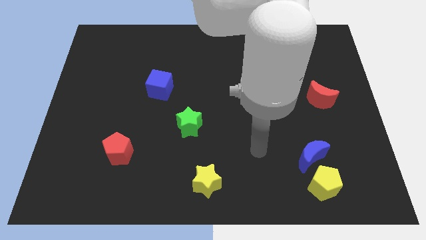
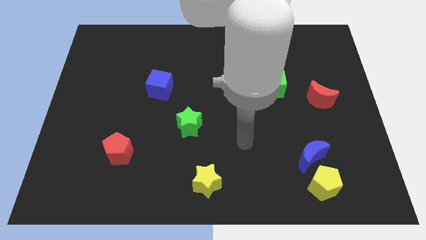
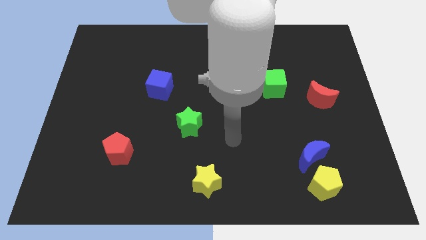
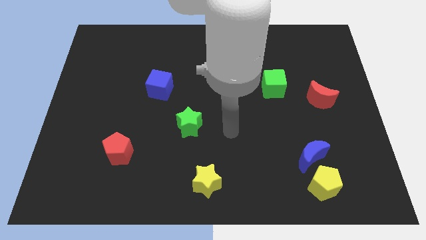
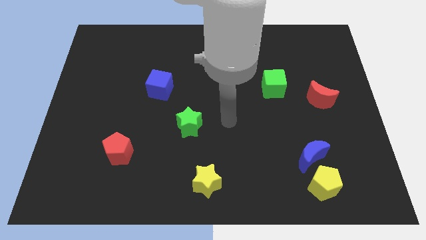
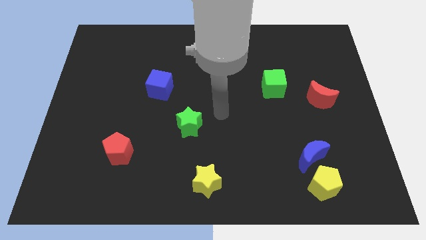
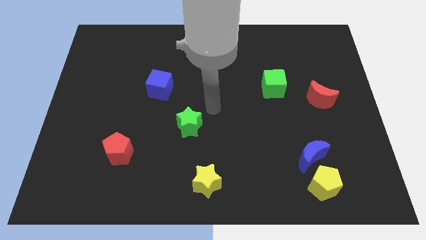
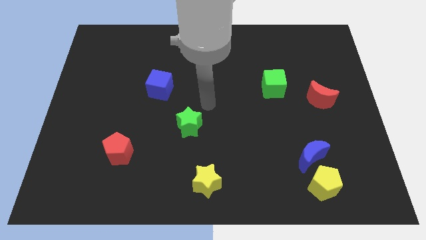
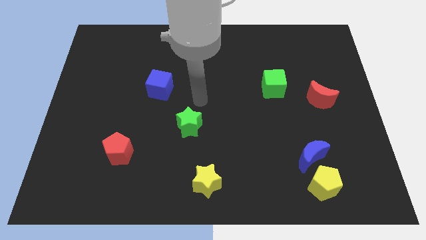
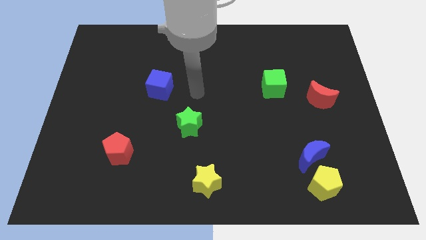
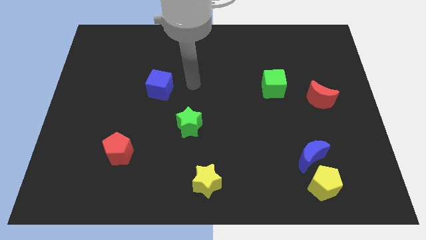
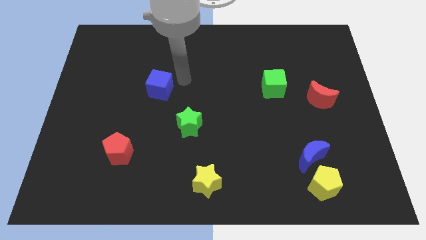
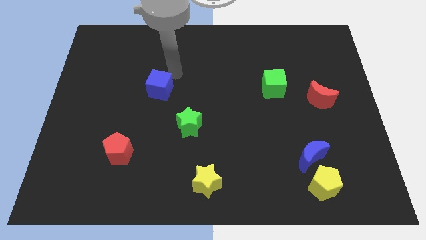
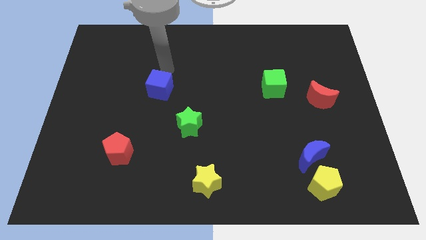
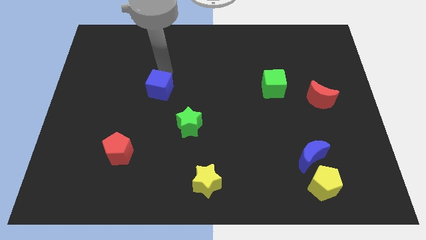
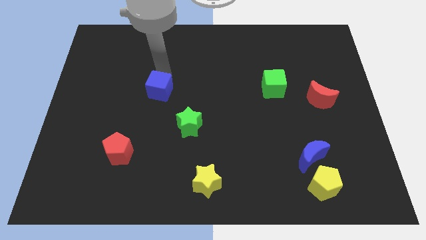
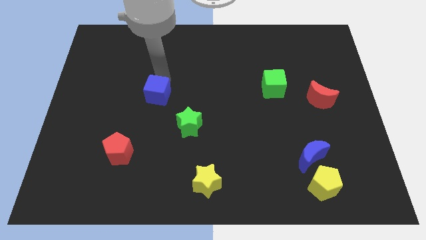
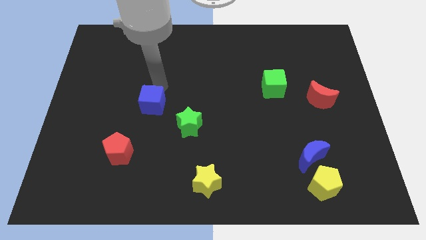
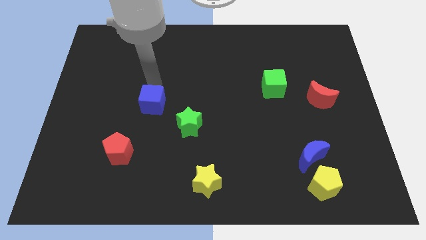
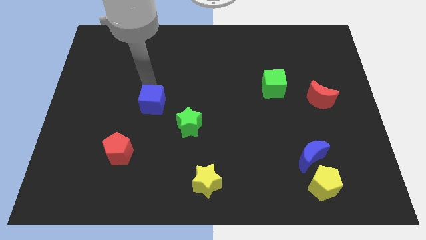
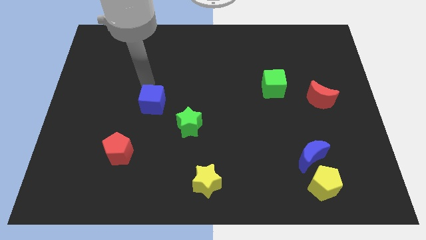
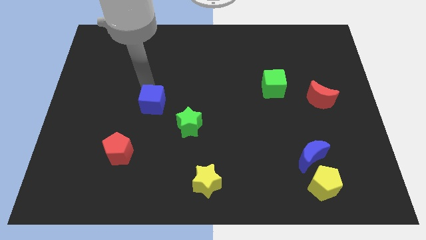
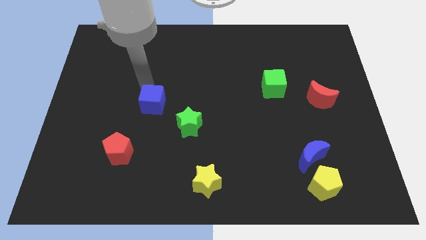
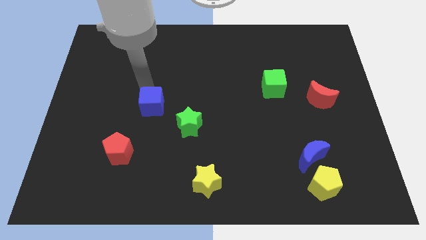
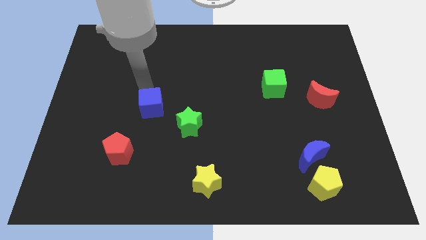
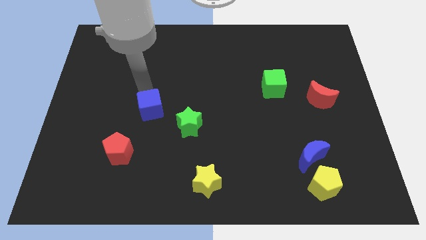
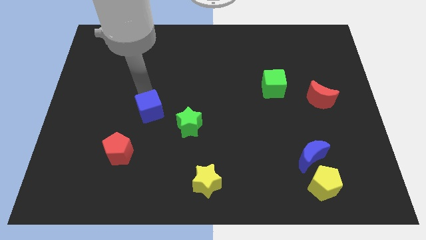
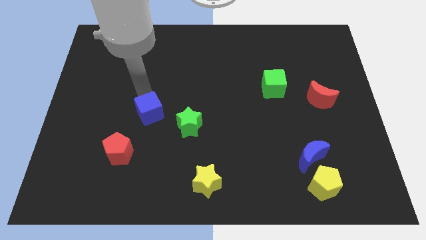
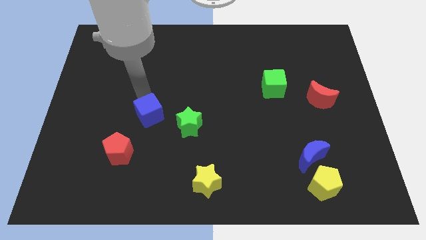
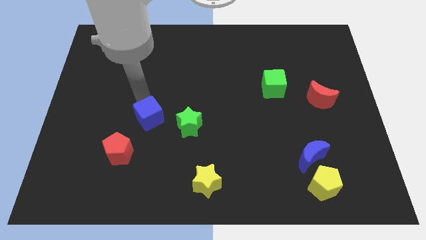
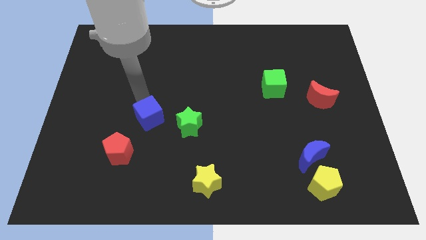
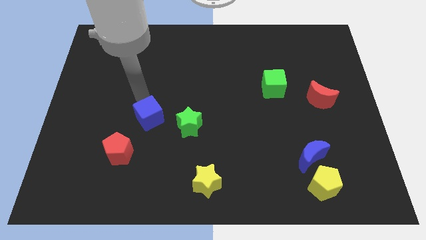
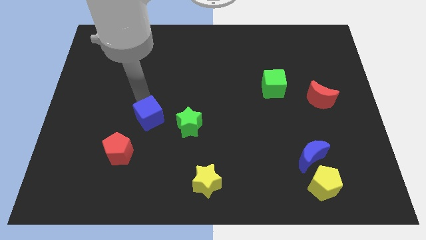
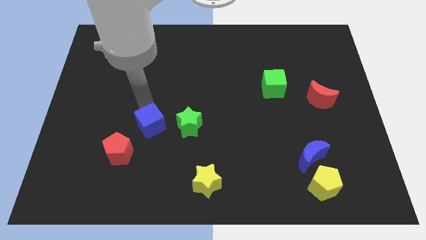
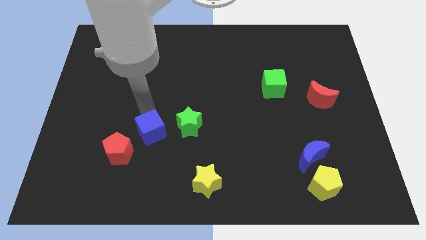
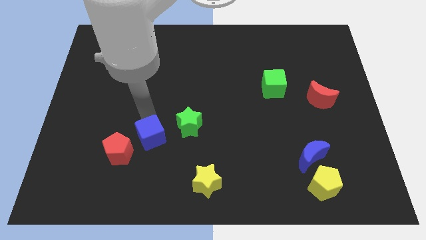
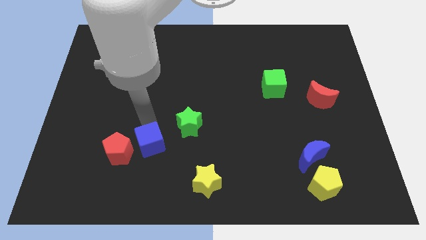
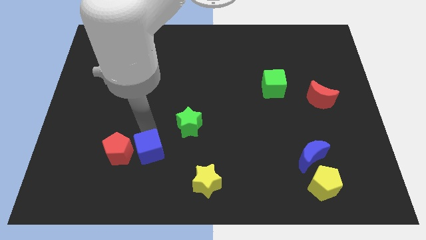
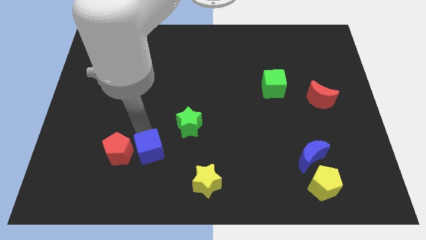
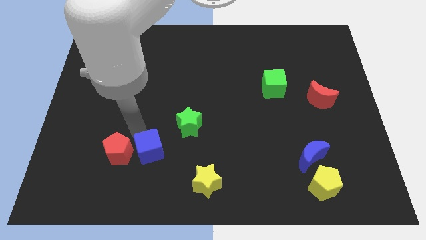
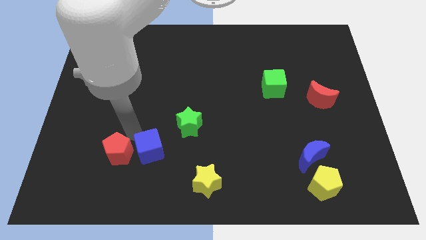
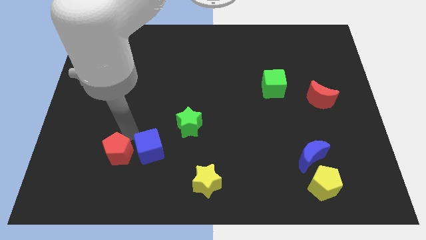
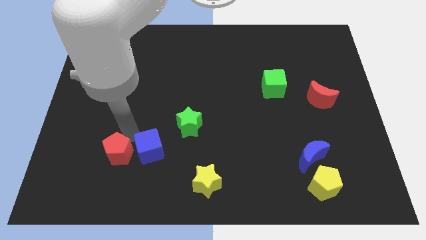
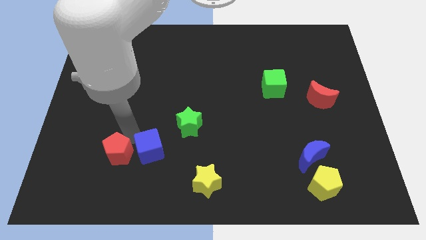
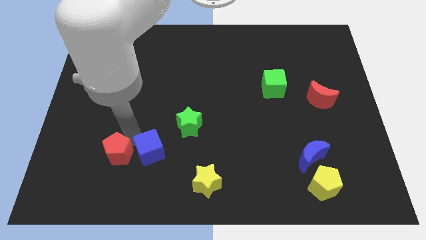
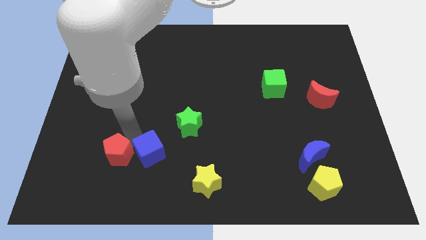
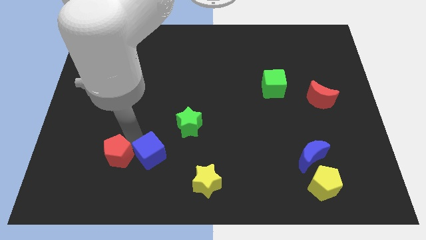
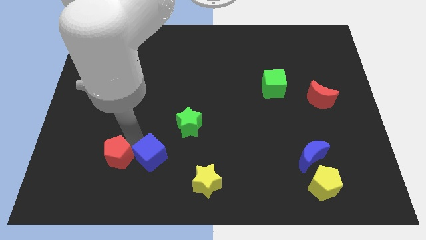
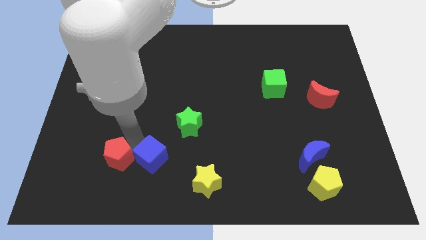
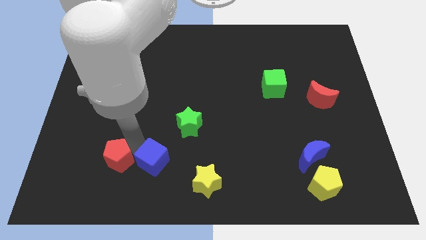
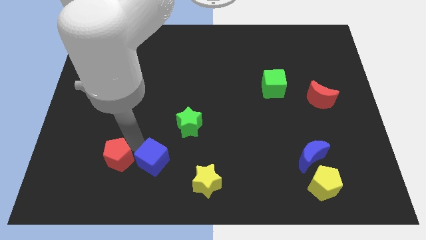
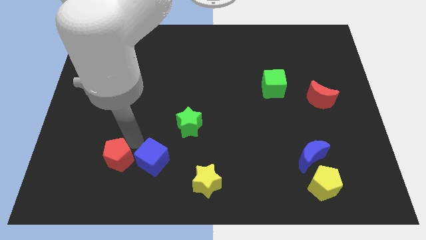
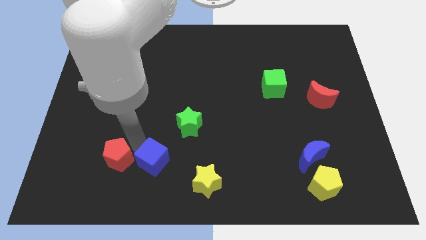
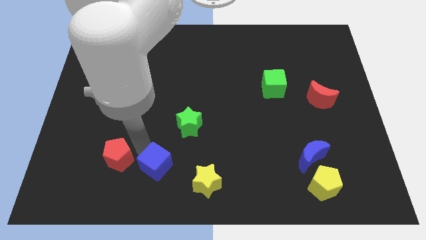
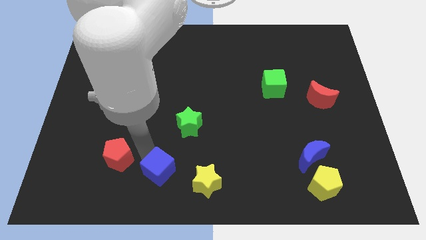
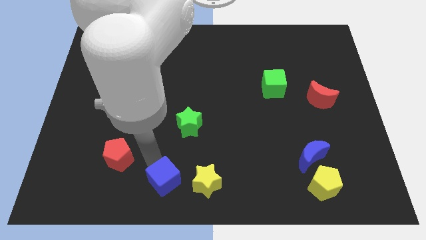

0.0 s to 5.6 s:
move the blue cube to the bottom side

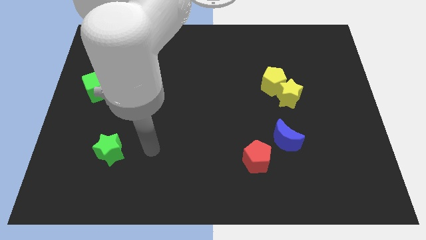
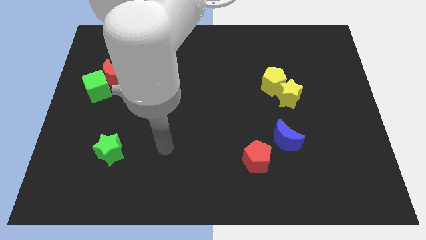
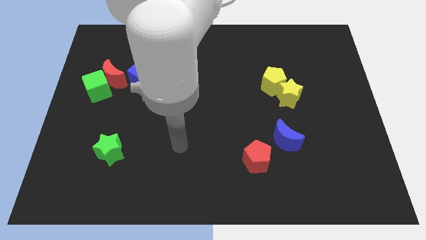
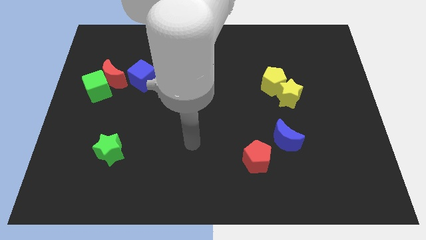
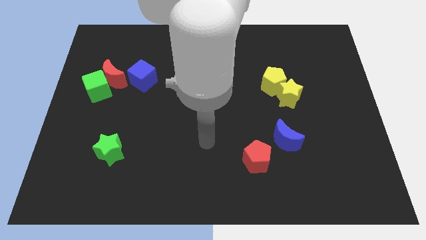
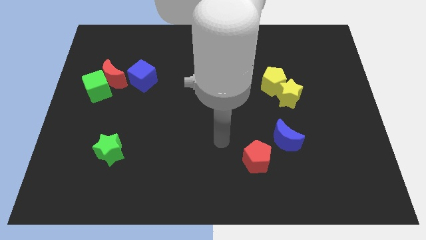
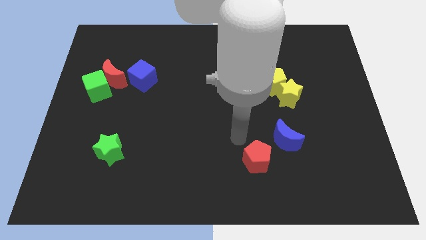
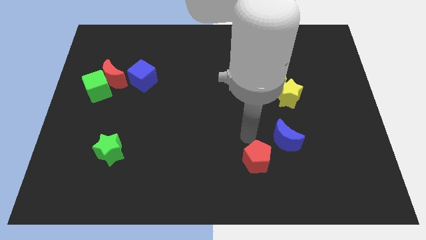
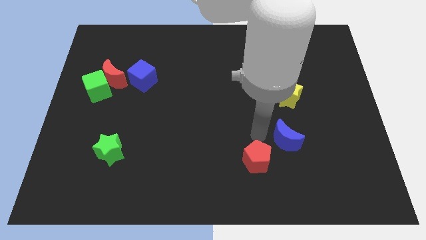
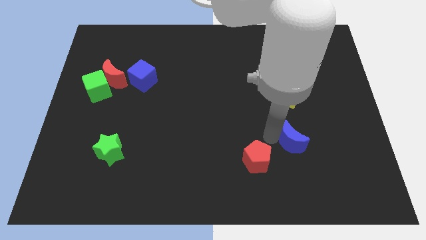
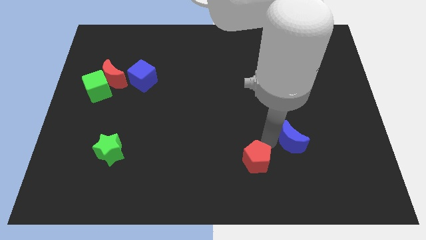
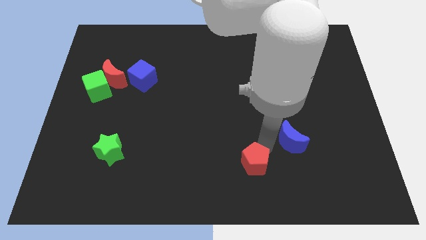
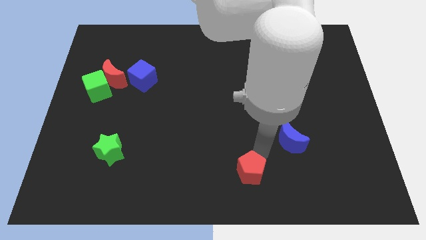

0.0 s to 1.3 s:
push the red pentagon to the bottom side

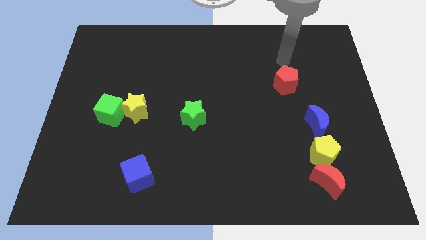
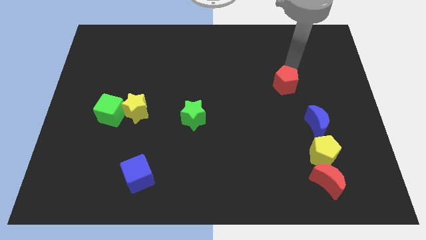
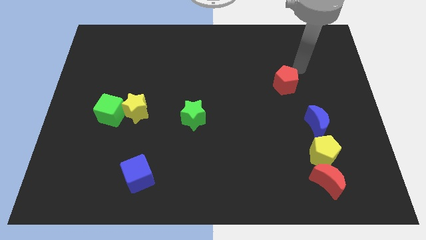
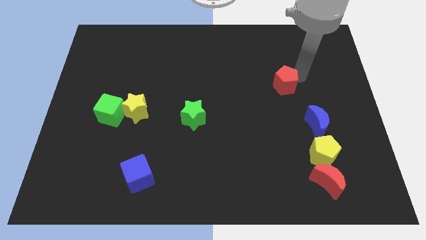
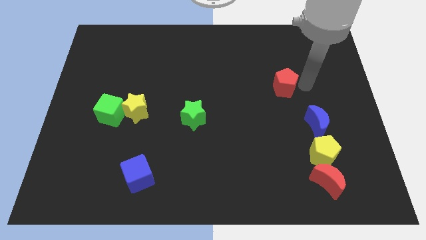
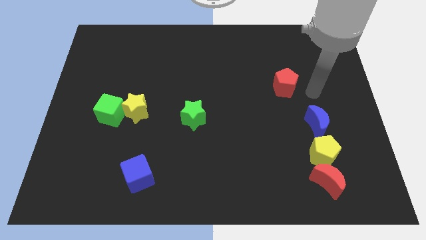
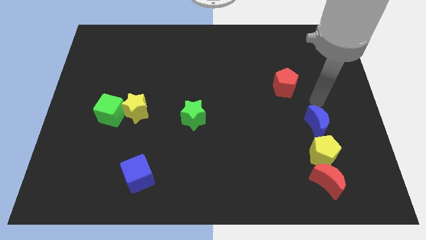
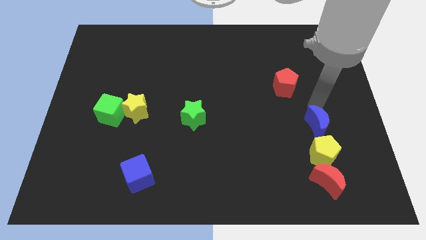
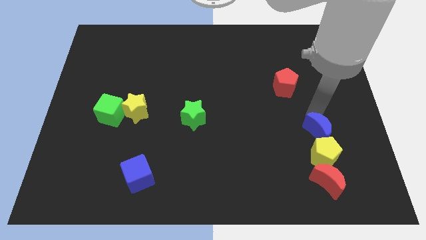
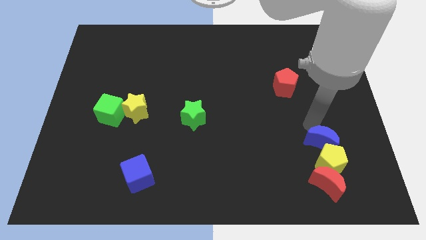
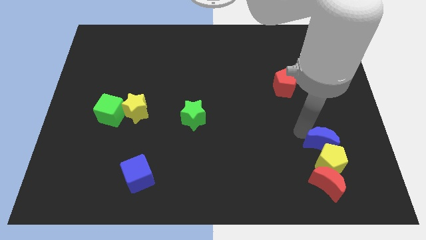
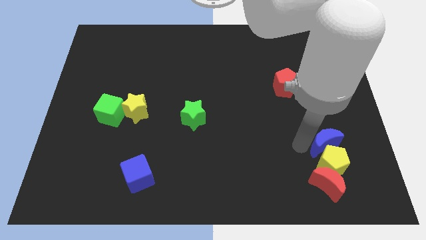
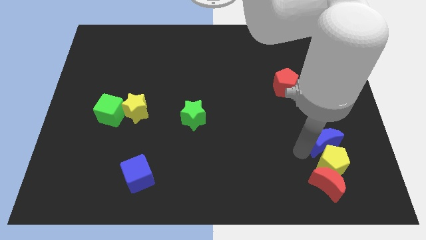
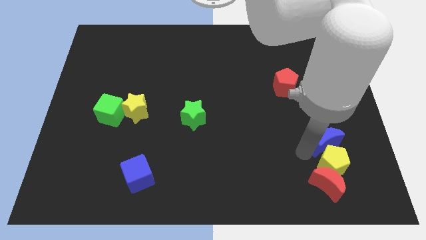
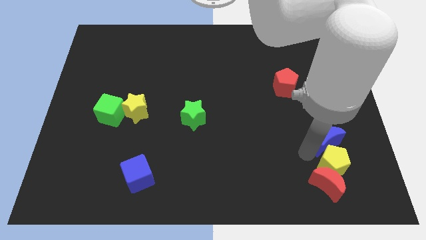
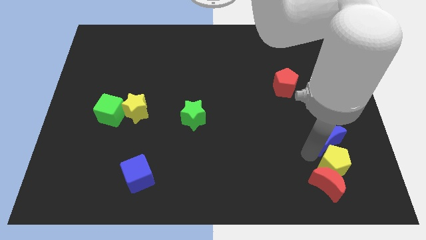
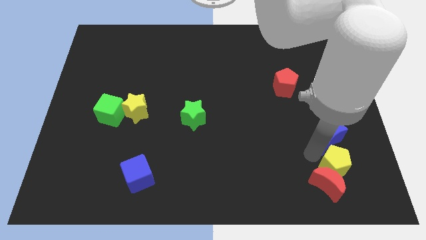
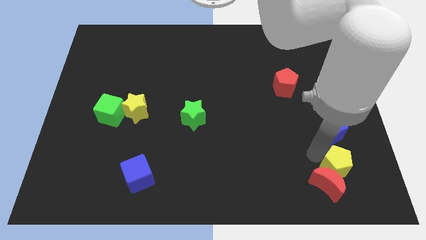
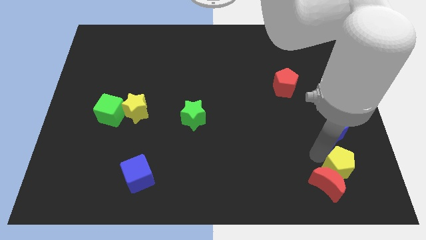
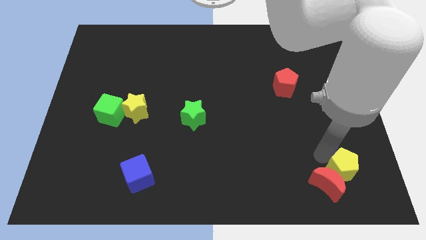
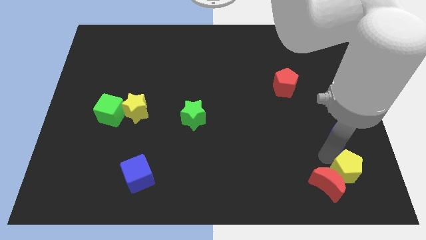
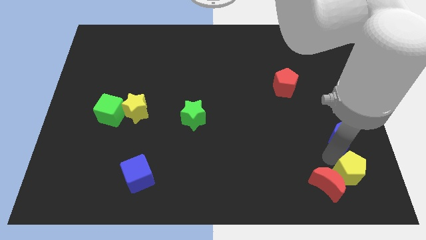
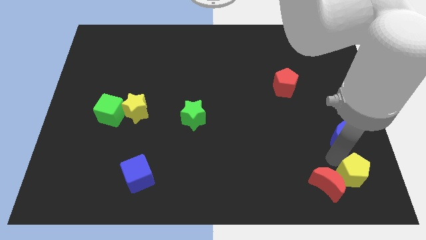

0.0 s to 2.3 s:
push the yellow pentagon to the bottom right corner
